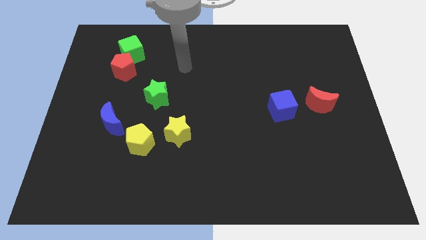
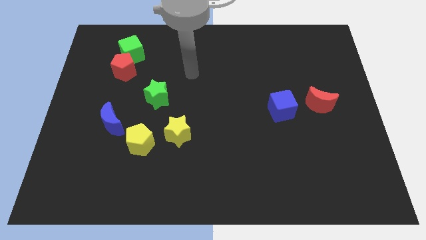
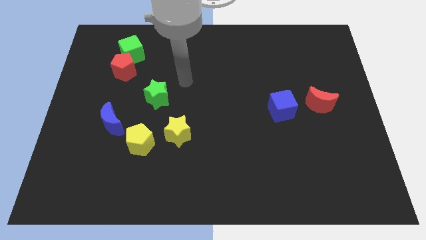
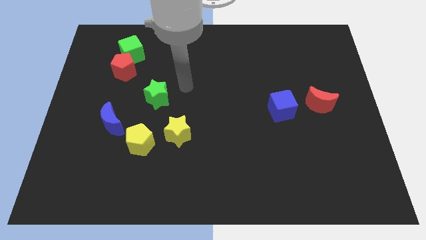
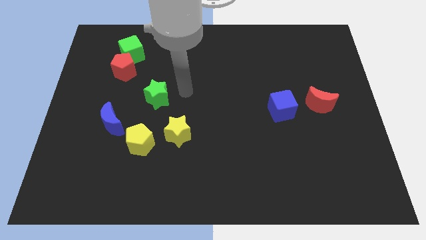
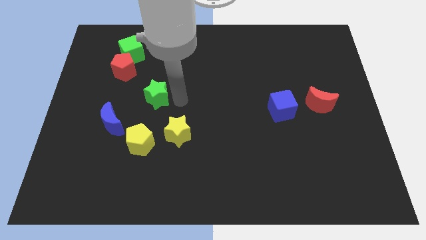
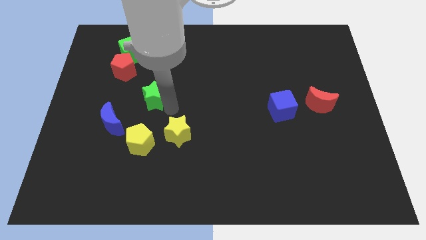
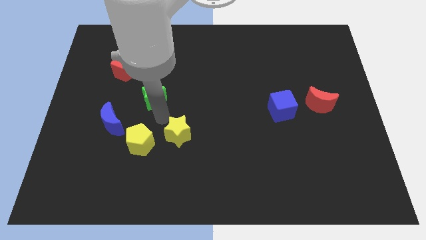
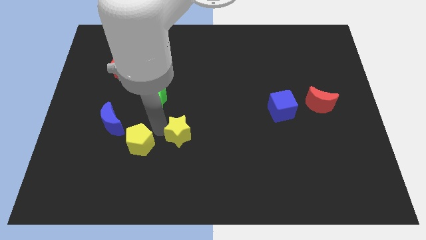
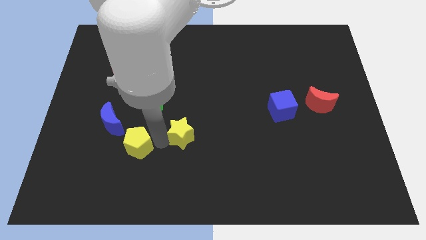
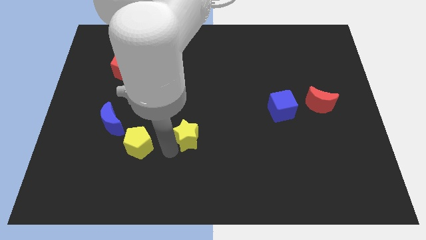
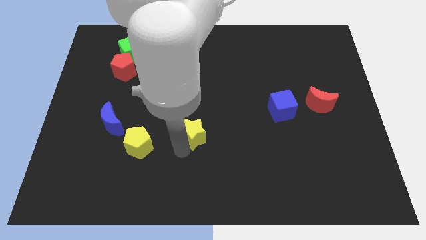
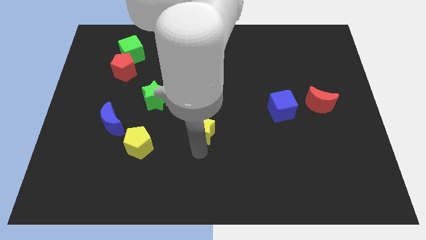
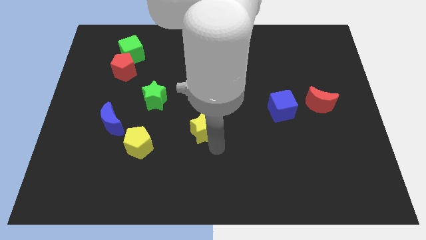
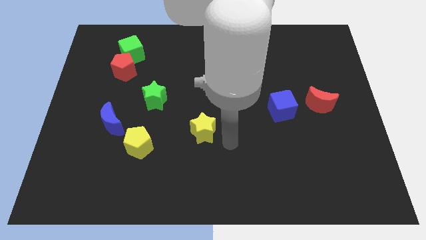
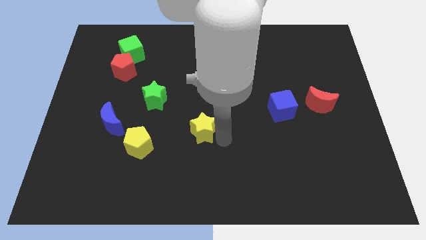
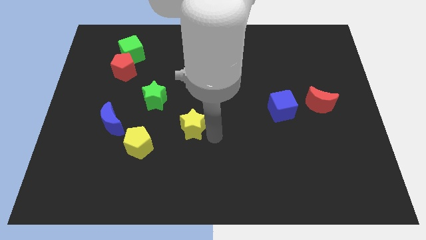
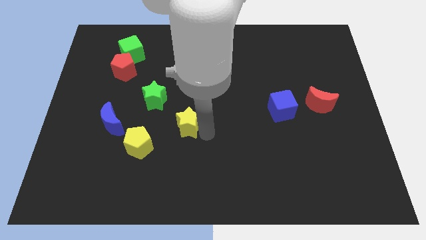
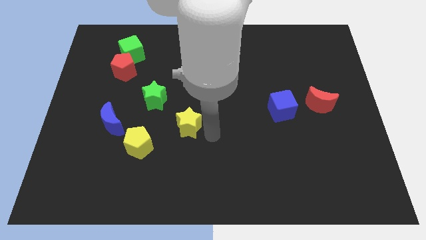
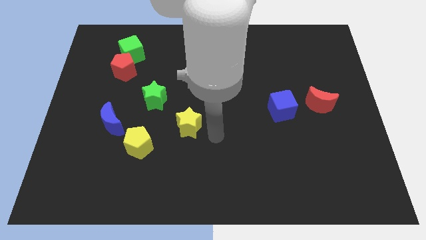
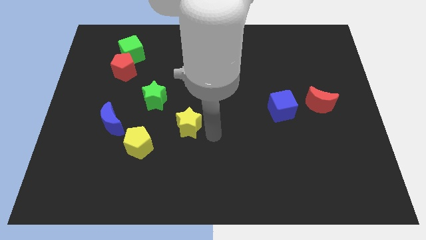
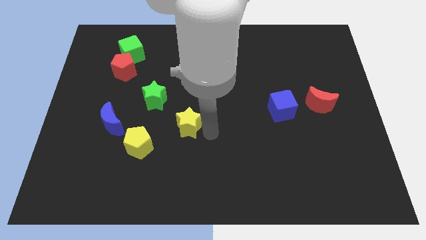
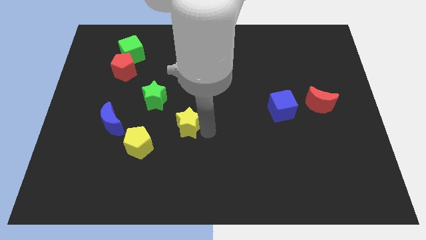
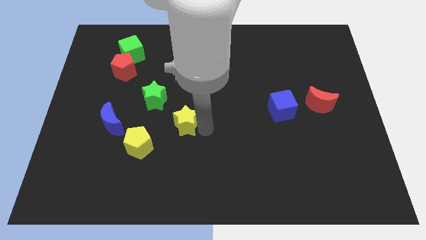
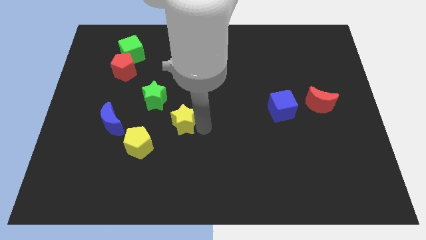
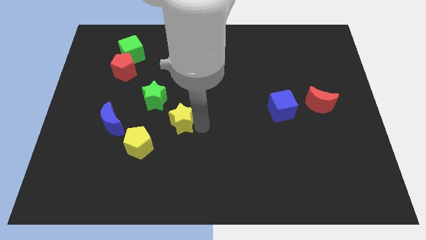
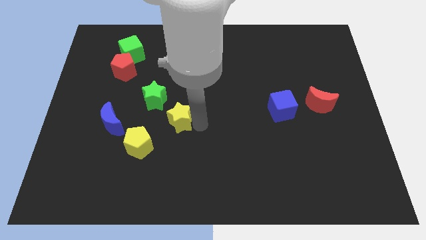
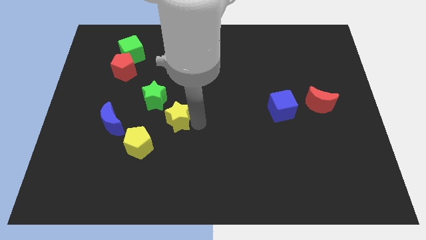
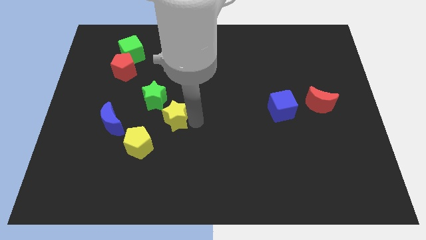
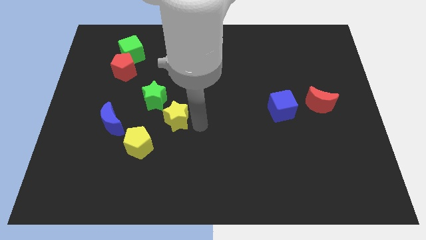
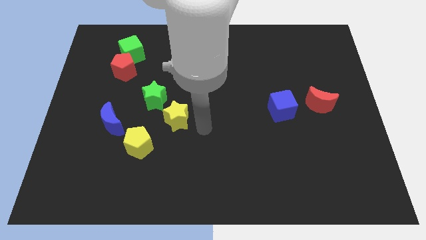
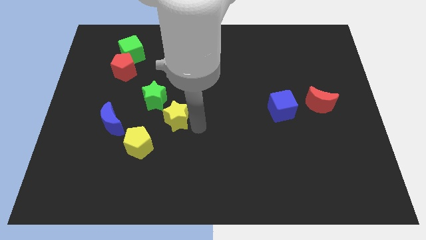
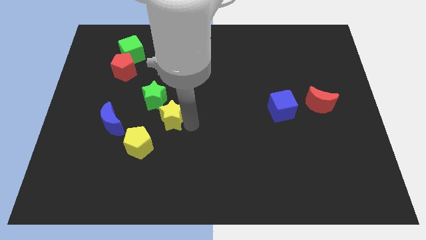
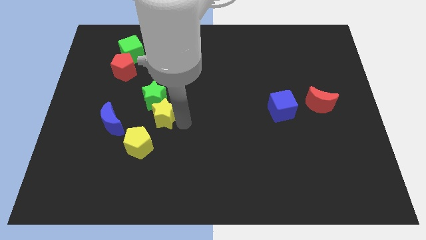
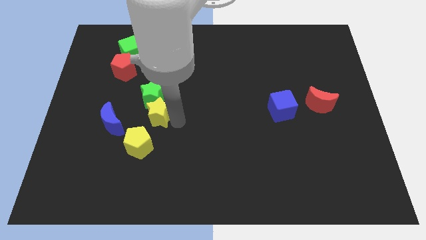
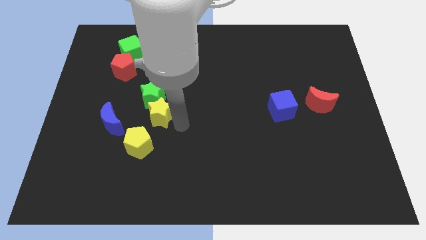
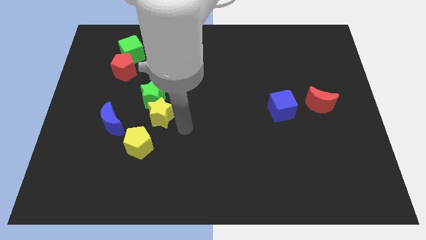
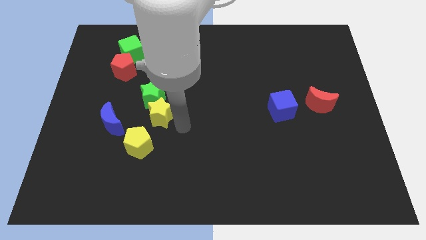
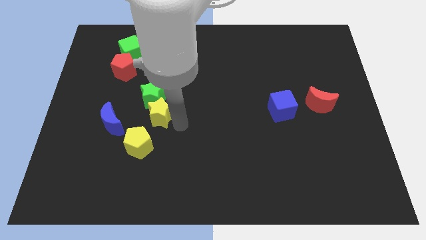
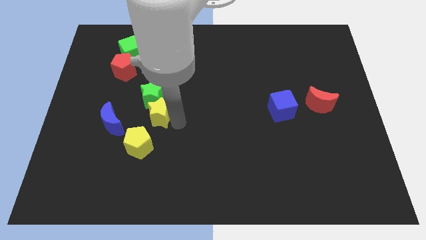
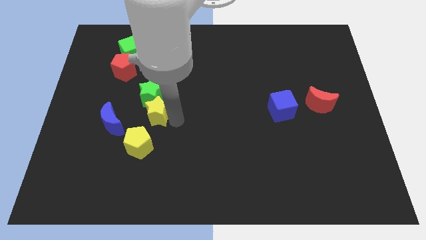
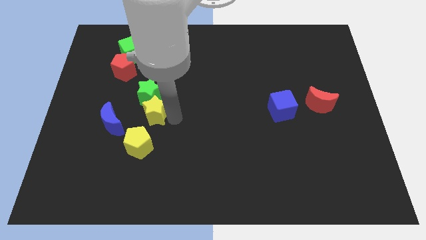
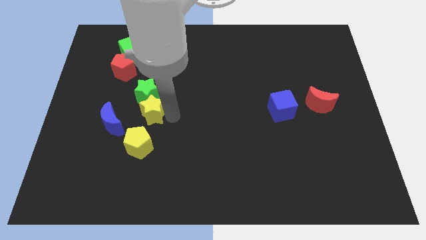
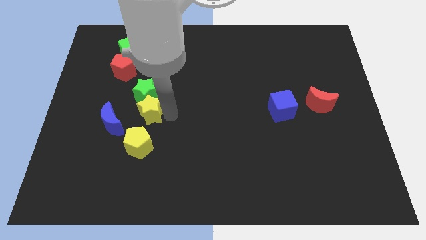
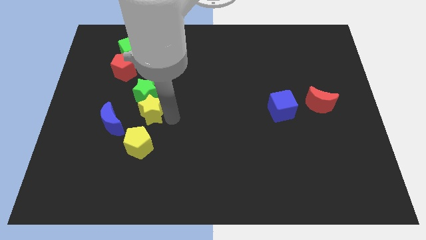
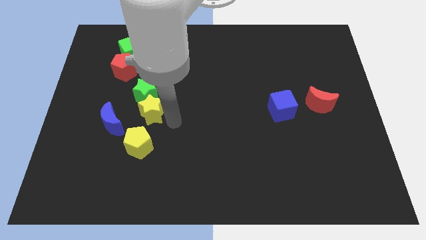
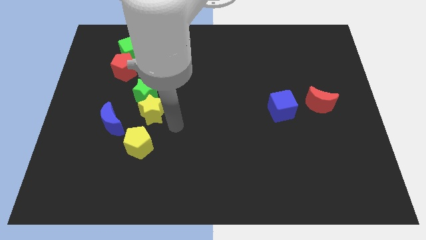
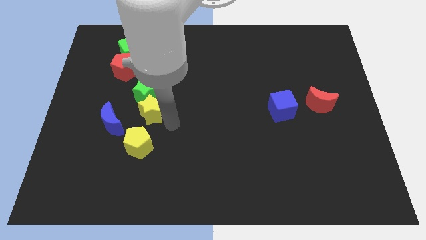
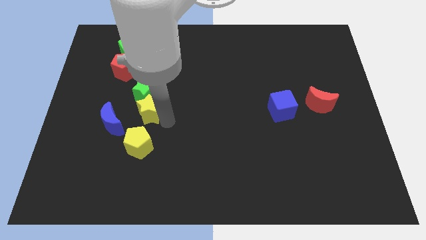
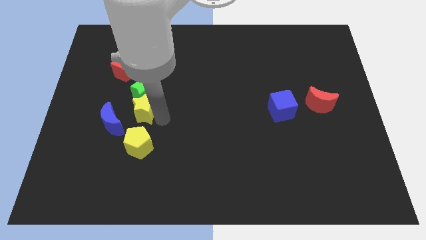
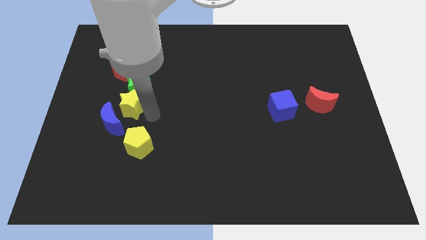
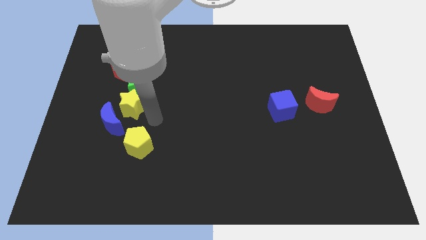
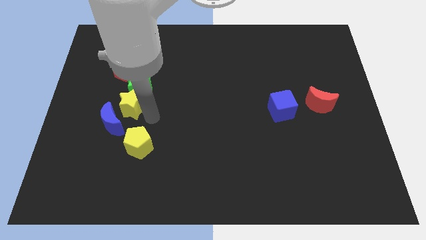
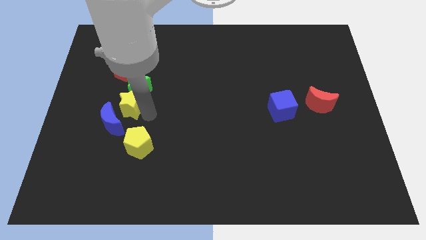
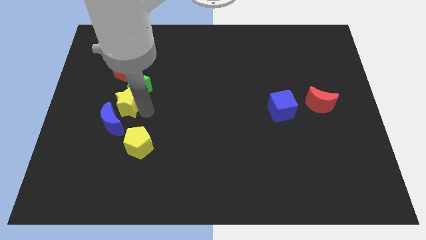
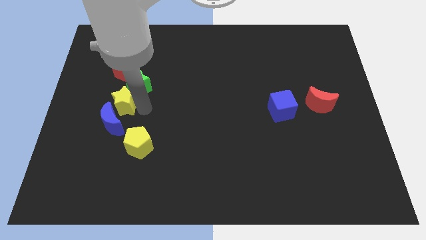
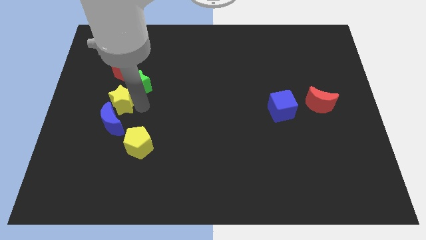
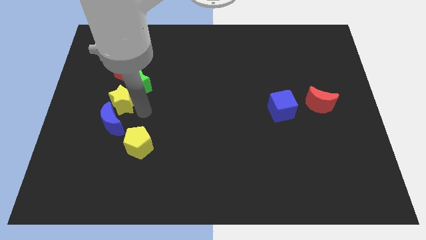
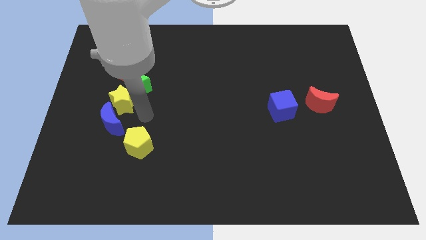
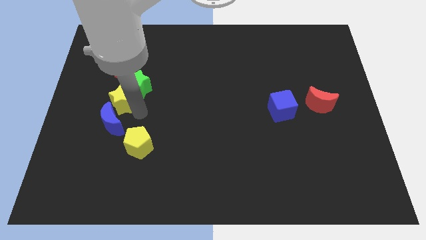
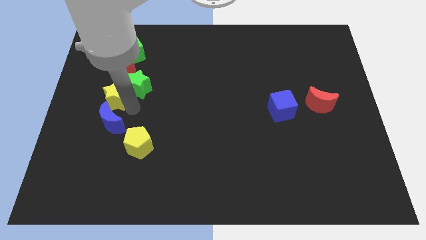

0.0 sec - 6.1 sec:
put the yellow star left of the green star

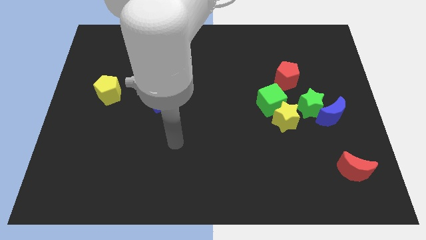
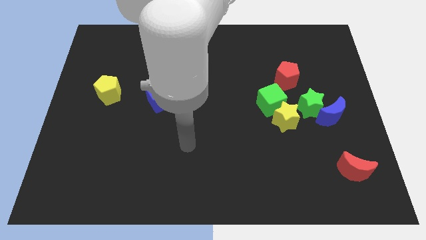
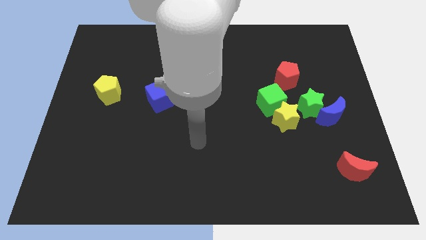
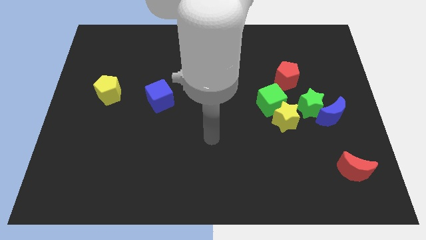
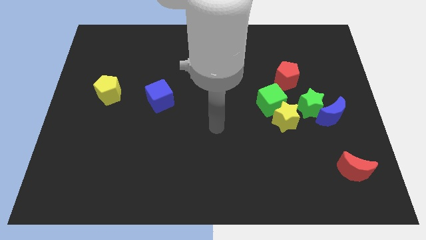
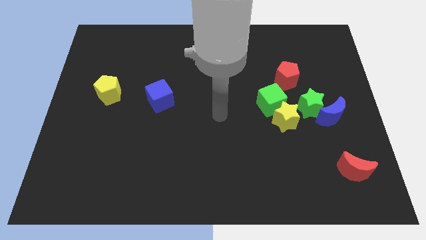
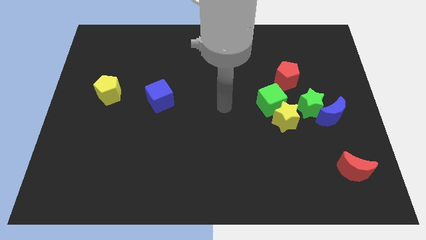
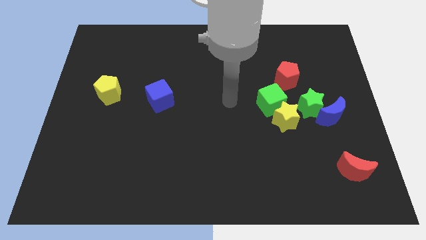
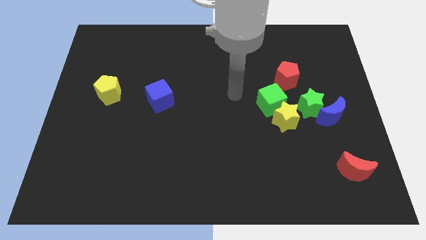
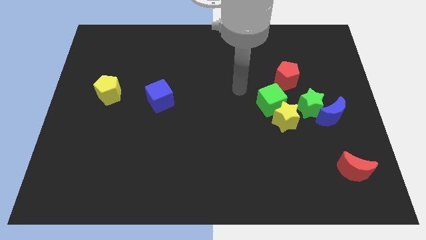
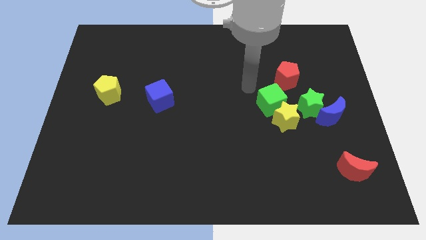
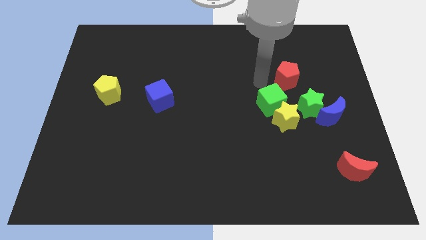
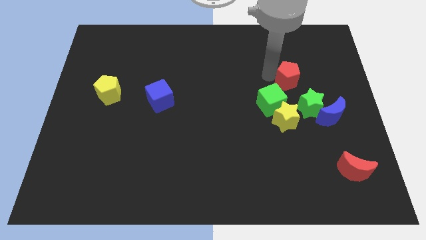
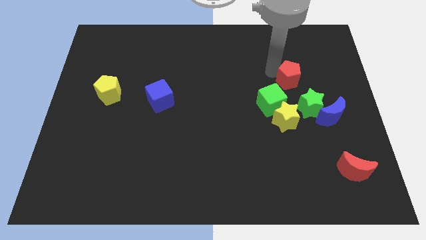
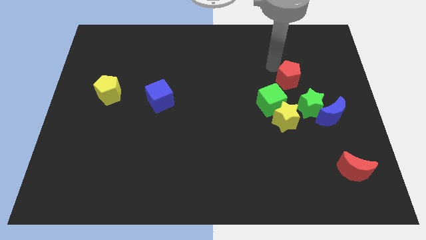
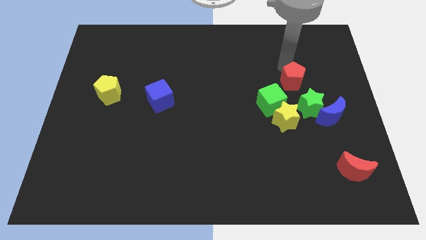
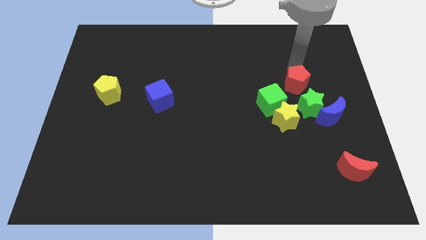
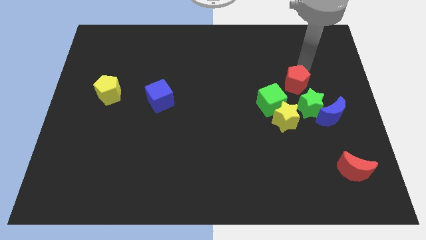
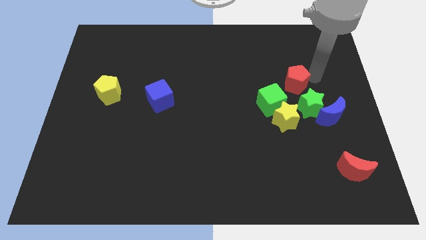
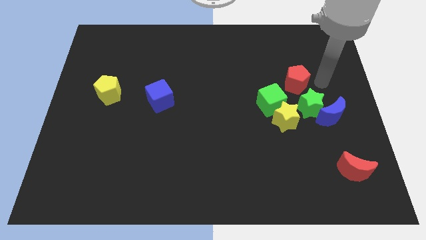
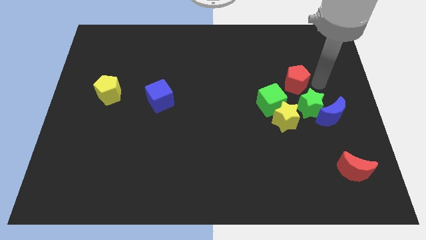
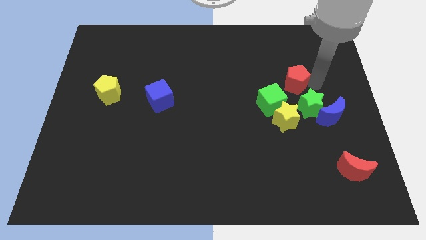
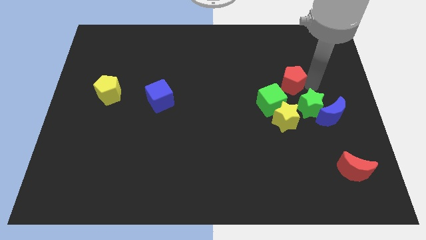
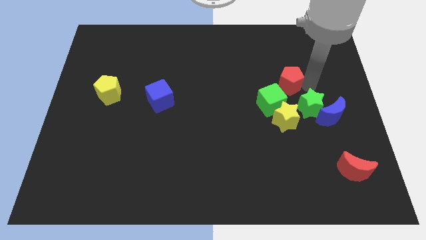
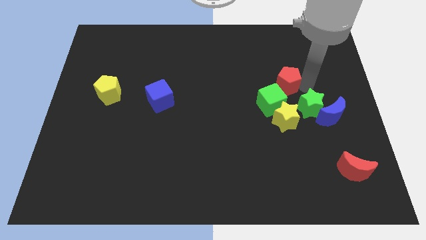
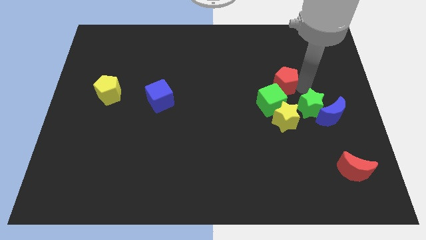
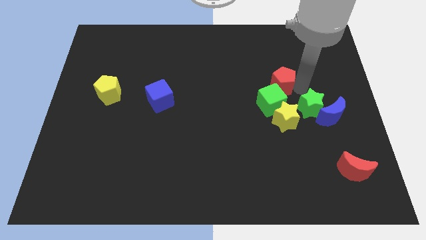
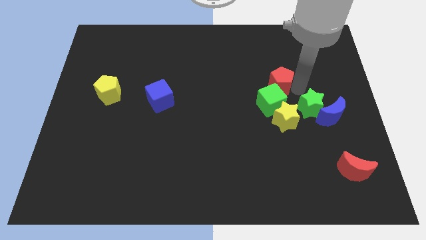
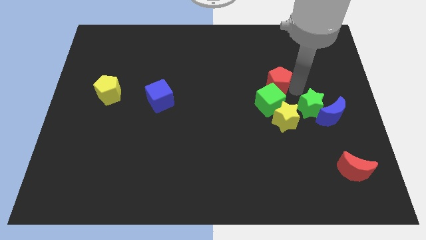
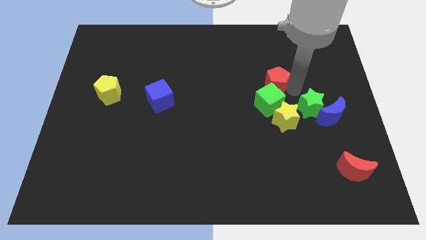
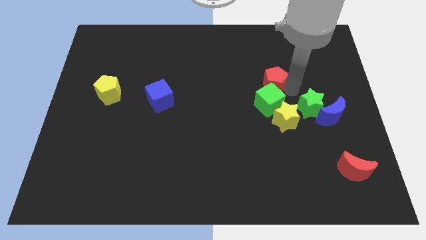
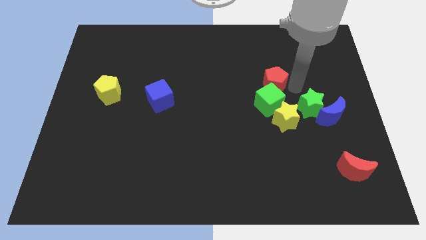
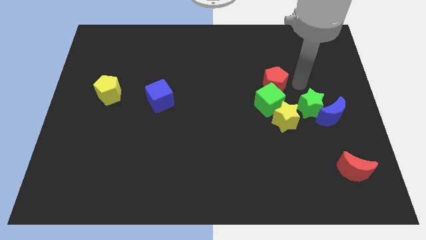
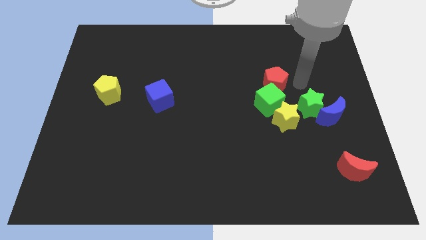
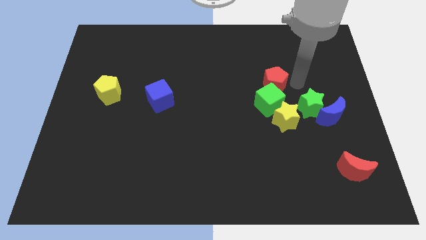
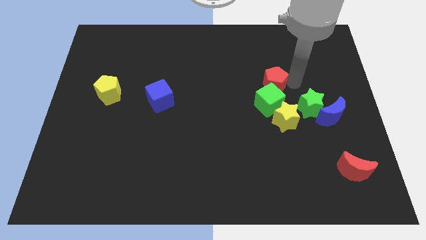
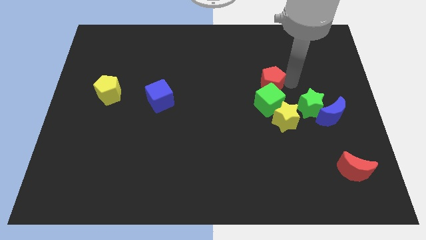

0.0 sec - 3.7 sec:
push the red pentagon diagonally up and to the left of the green cube
